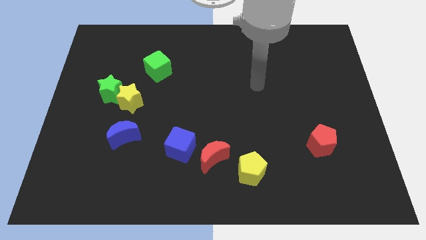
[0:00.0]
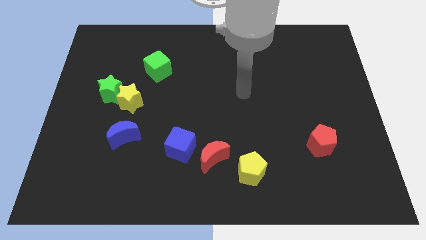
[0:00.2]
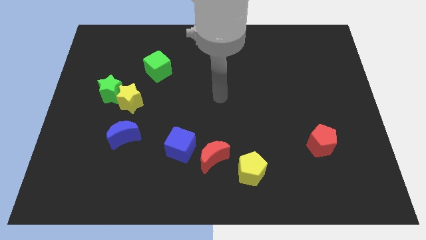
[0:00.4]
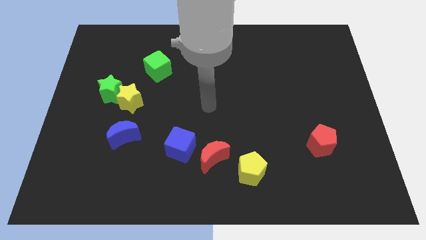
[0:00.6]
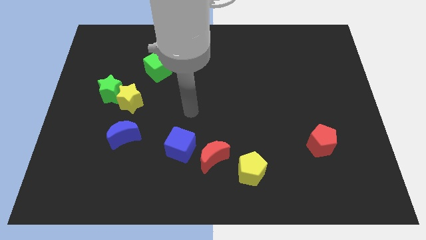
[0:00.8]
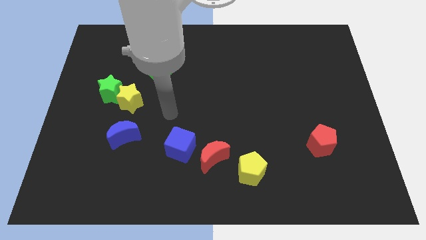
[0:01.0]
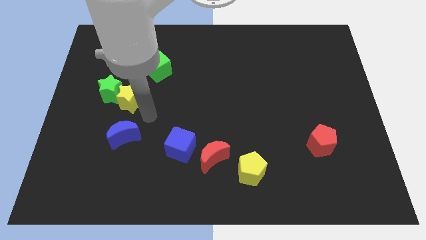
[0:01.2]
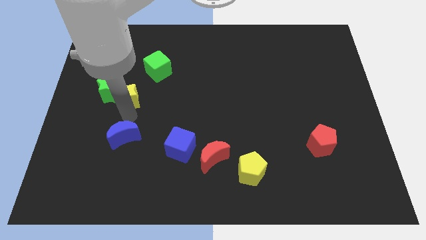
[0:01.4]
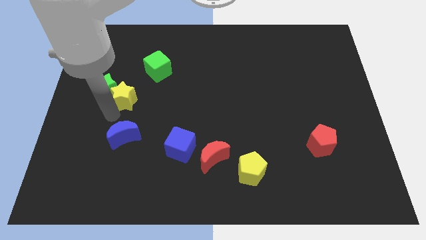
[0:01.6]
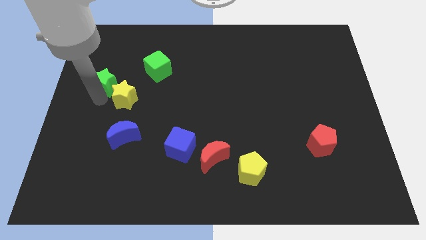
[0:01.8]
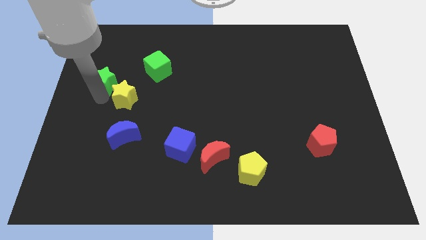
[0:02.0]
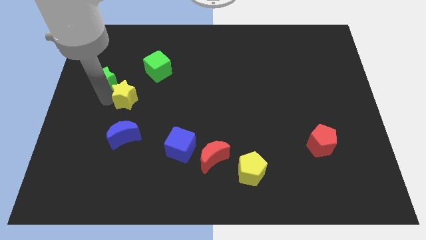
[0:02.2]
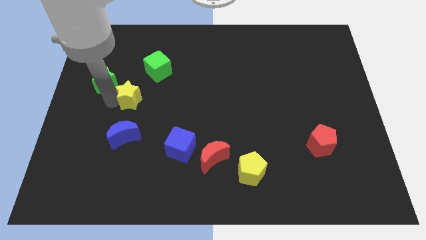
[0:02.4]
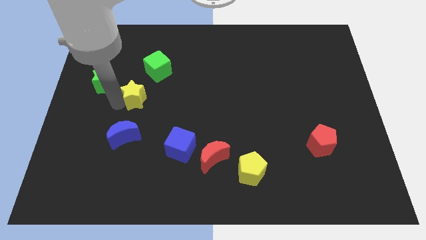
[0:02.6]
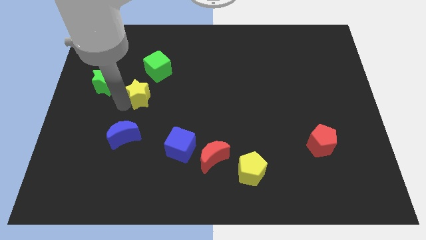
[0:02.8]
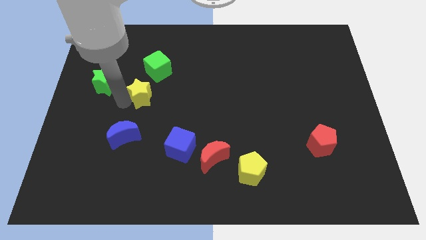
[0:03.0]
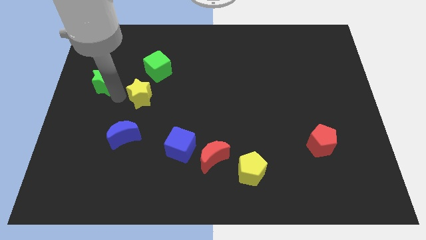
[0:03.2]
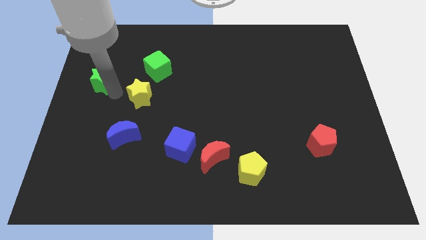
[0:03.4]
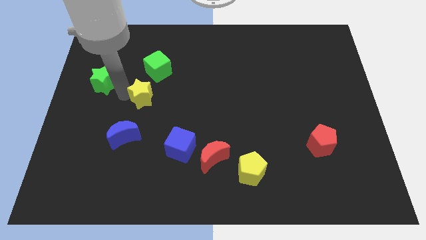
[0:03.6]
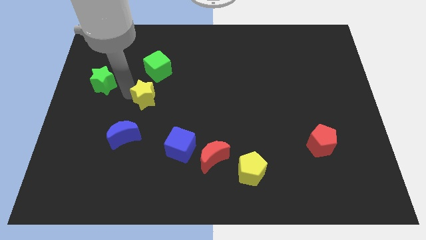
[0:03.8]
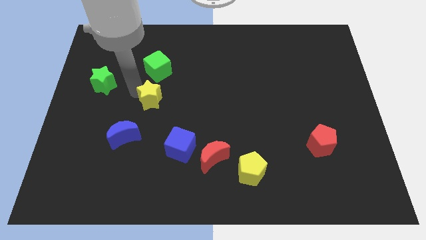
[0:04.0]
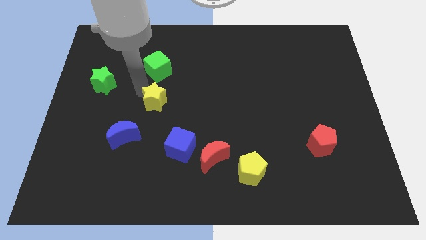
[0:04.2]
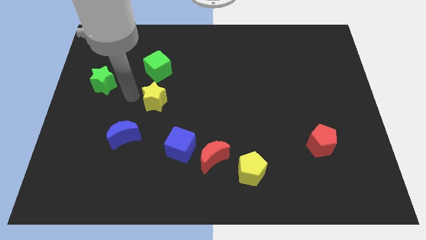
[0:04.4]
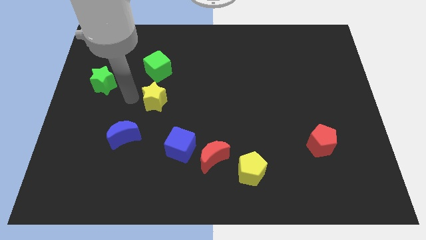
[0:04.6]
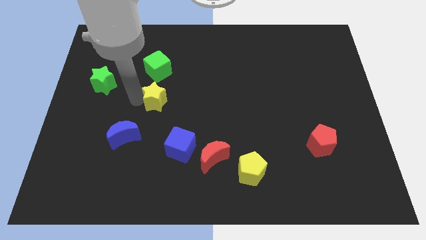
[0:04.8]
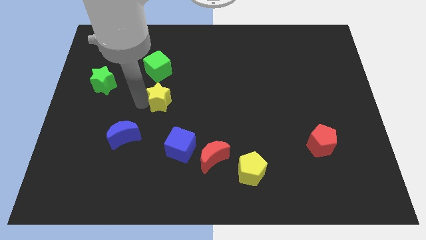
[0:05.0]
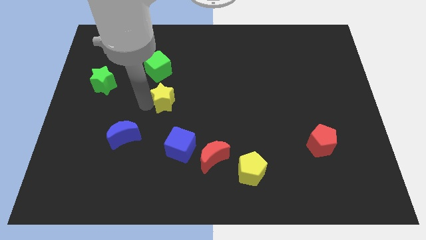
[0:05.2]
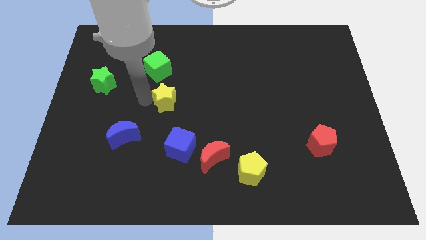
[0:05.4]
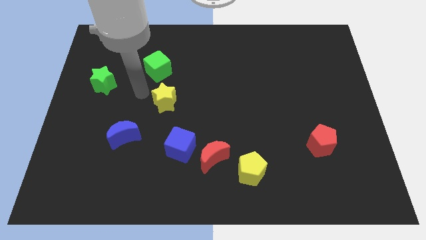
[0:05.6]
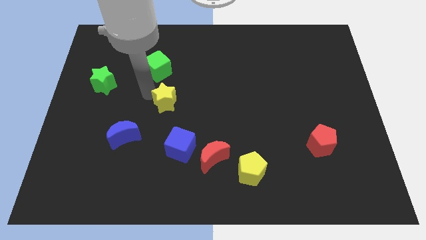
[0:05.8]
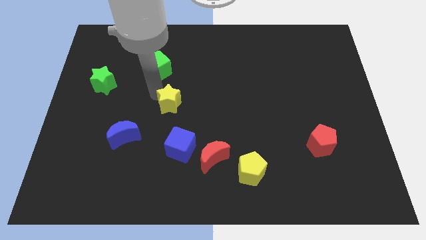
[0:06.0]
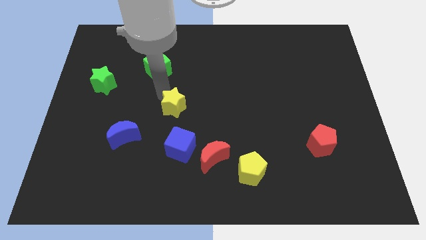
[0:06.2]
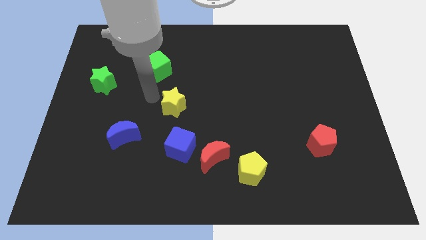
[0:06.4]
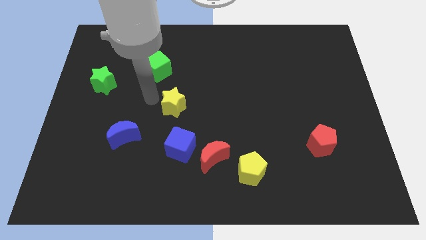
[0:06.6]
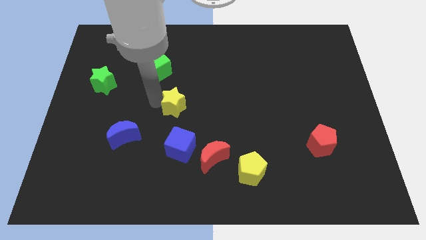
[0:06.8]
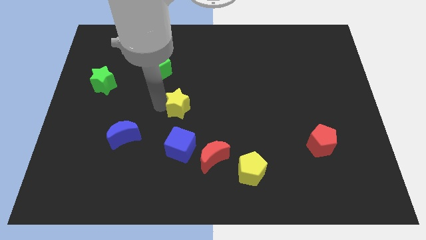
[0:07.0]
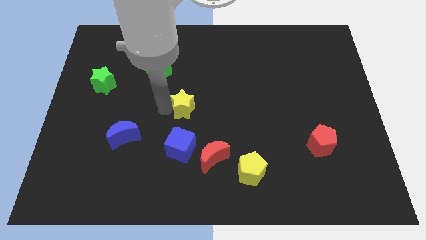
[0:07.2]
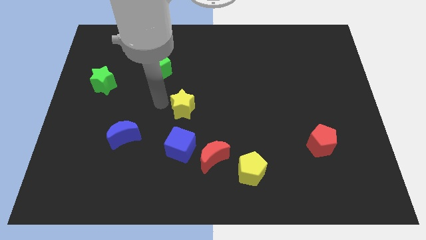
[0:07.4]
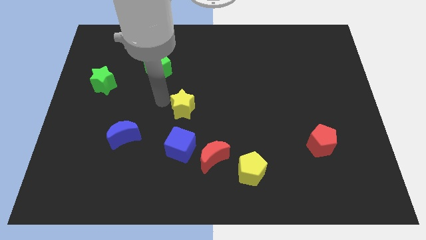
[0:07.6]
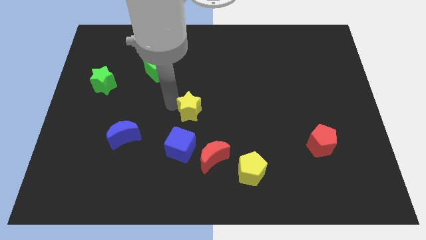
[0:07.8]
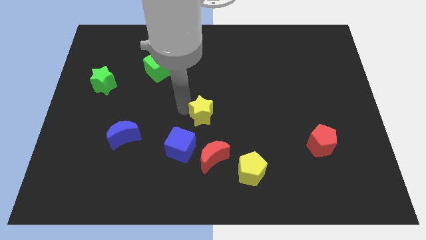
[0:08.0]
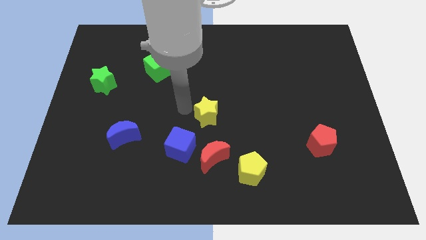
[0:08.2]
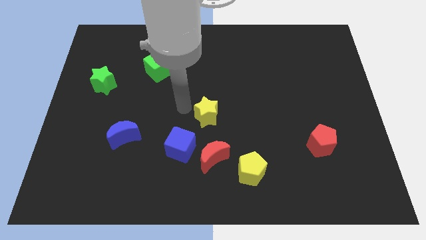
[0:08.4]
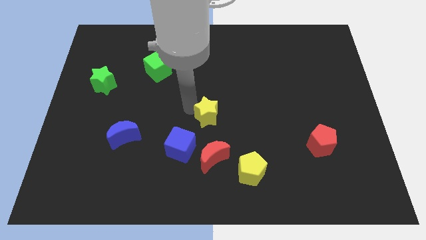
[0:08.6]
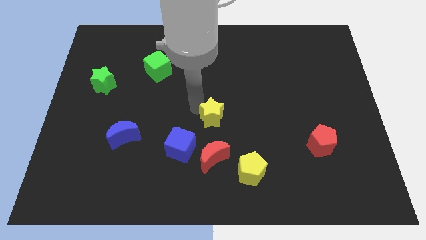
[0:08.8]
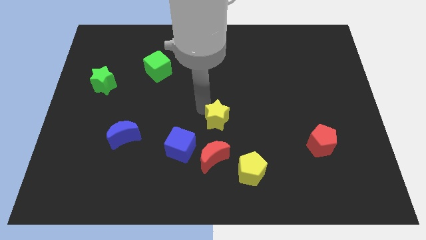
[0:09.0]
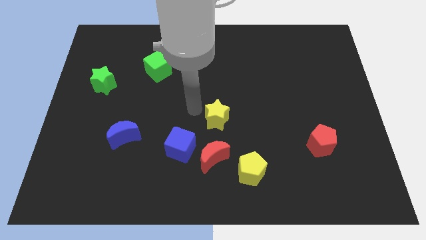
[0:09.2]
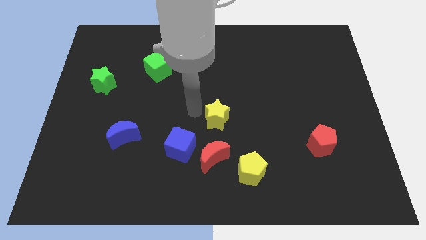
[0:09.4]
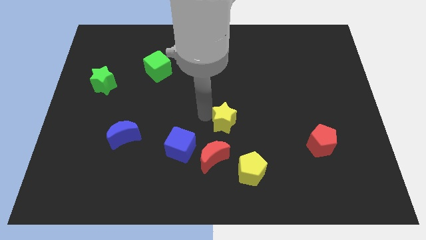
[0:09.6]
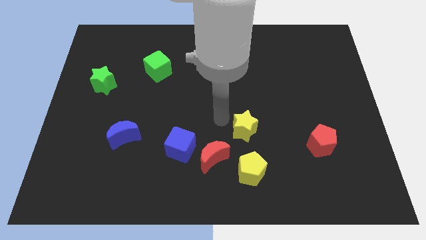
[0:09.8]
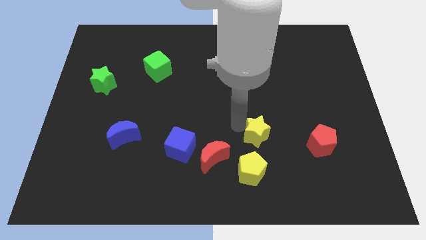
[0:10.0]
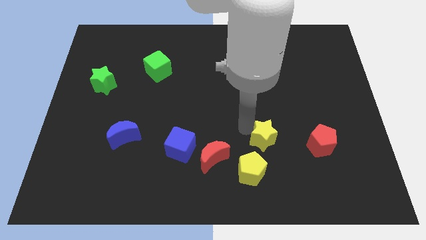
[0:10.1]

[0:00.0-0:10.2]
put the yellow star to the top right side of the yellow pentagon

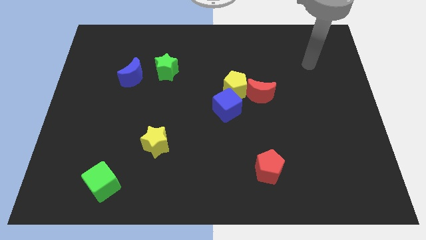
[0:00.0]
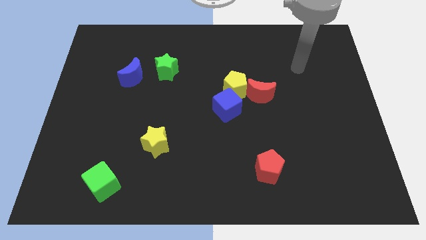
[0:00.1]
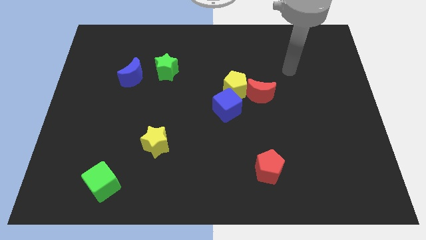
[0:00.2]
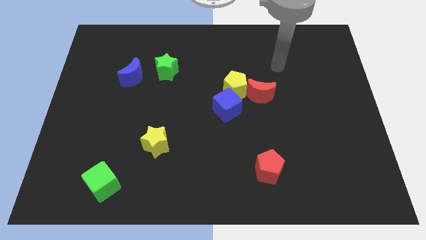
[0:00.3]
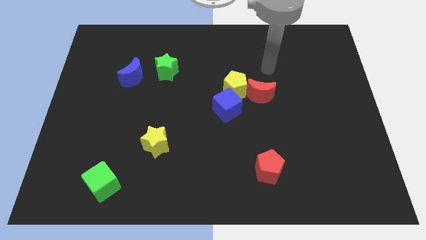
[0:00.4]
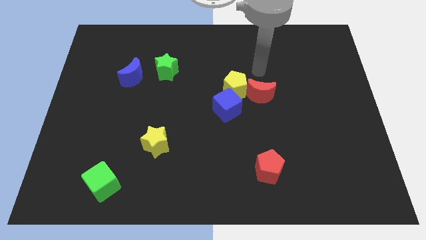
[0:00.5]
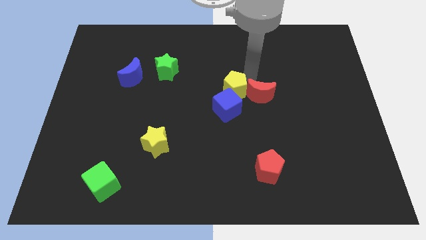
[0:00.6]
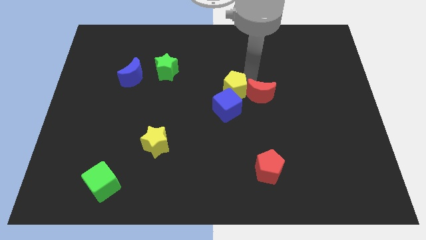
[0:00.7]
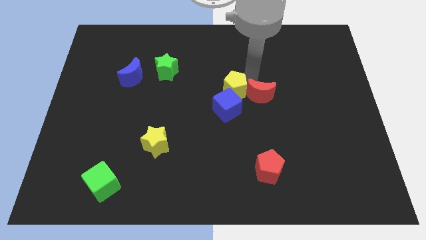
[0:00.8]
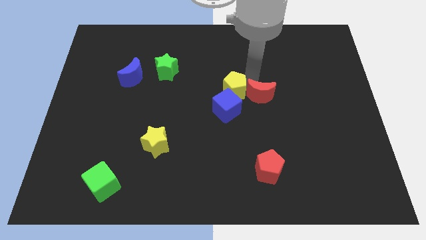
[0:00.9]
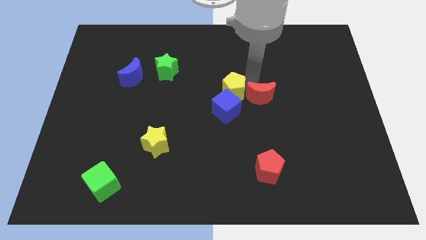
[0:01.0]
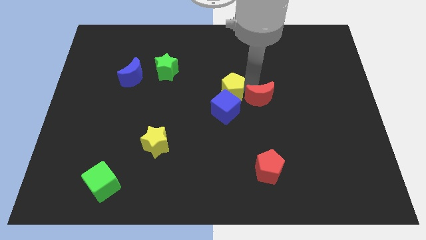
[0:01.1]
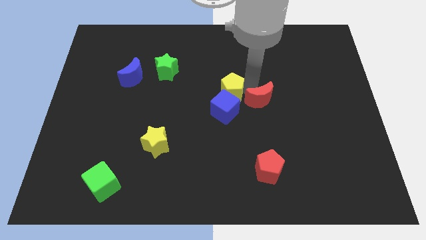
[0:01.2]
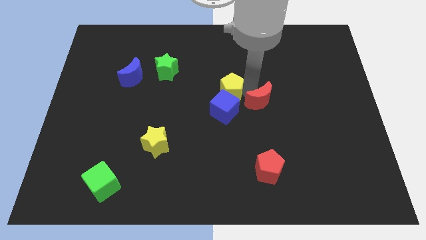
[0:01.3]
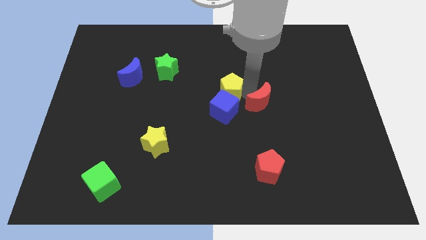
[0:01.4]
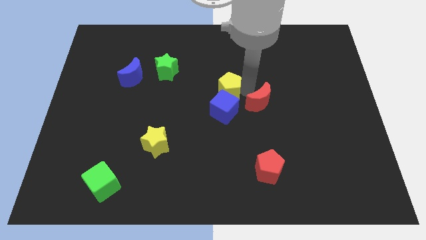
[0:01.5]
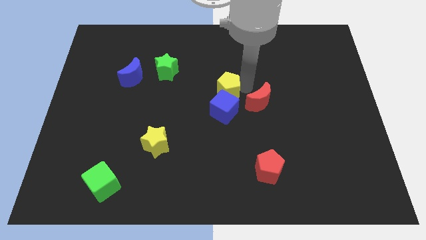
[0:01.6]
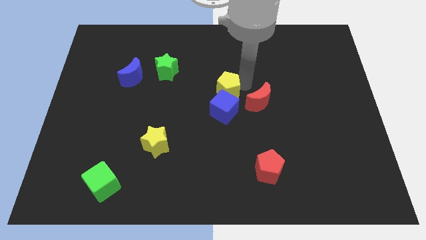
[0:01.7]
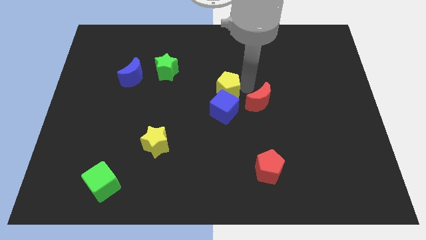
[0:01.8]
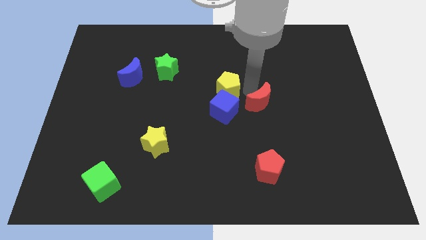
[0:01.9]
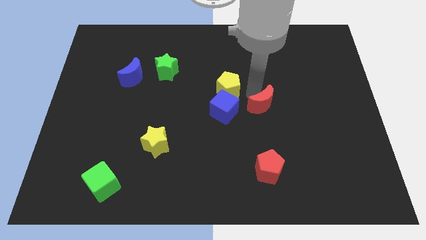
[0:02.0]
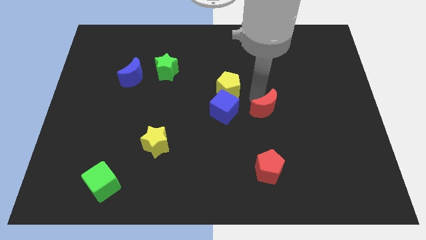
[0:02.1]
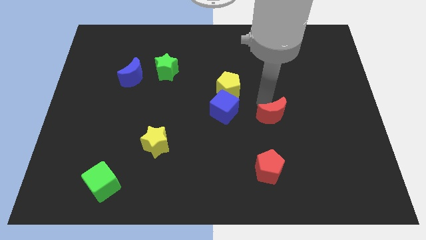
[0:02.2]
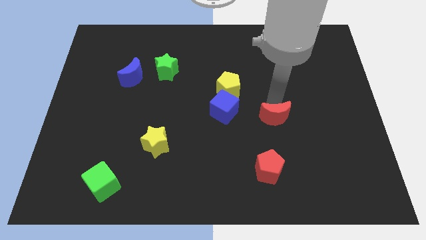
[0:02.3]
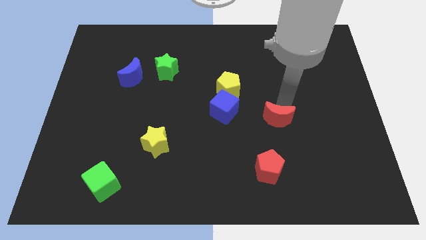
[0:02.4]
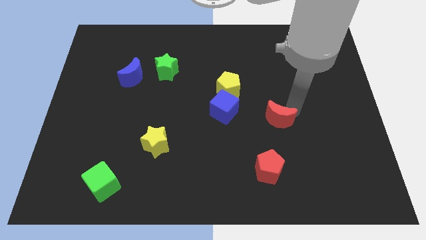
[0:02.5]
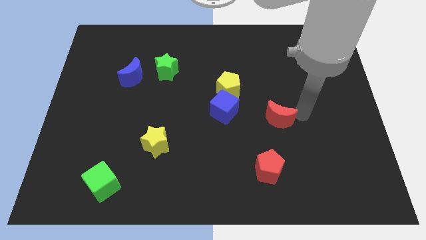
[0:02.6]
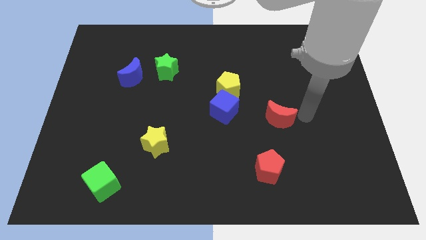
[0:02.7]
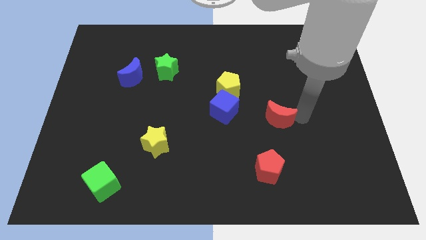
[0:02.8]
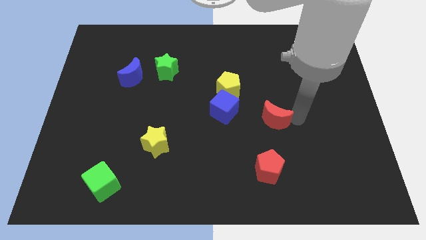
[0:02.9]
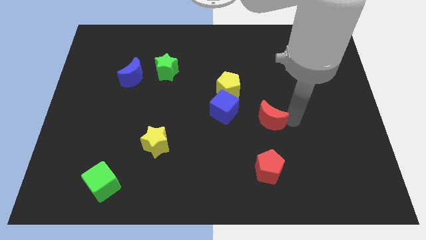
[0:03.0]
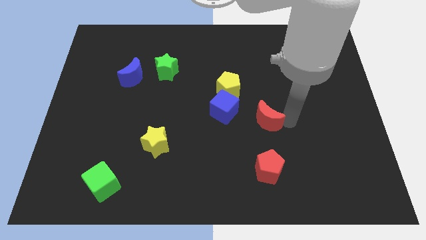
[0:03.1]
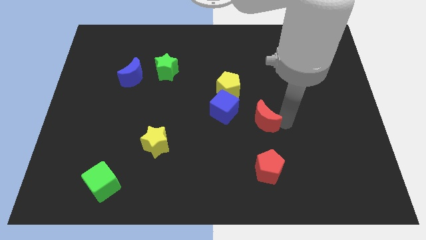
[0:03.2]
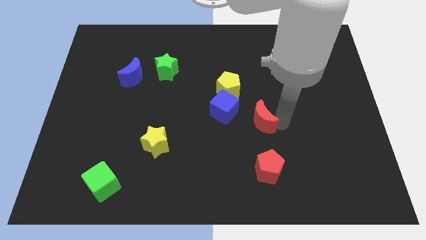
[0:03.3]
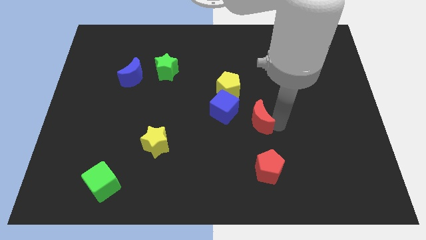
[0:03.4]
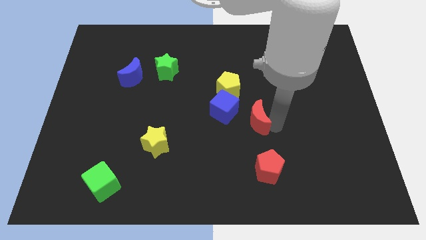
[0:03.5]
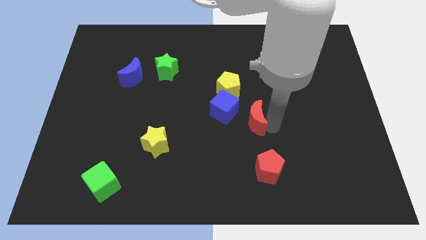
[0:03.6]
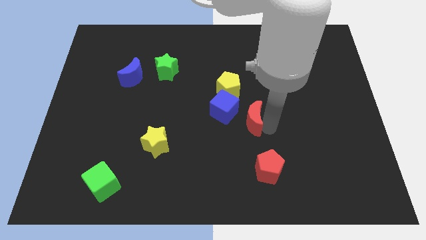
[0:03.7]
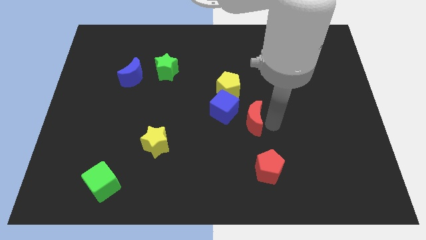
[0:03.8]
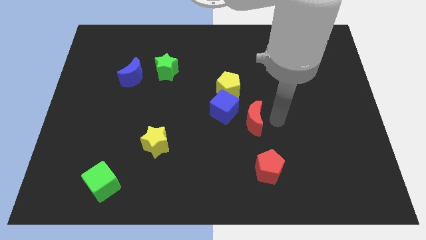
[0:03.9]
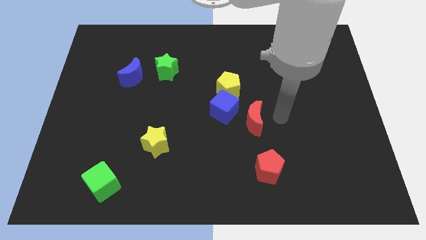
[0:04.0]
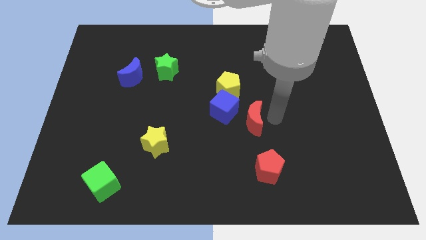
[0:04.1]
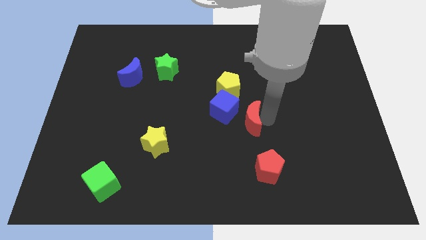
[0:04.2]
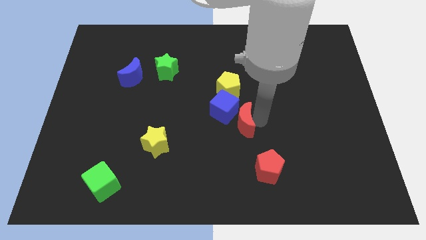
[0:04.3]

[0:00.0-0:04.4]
push the red moon to the bottom of the yellow pentagon
